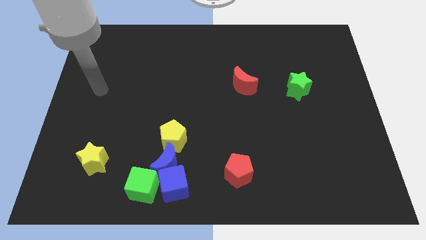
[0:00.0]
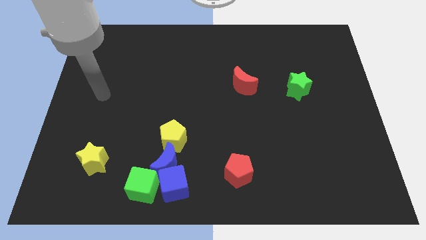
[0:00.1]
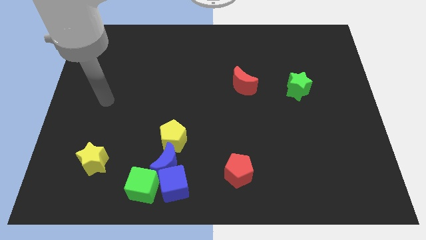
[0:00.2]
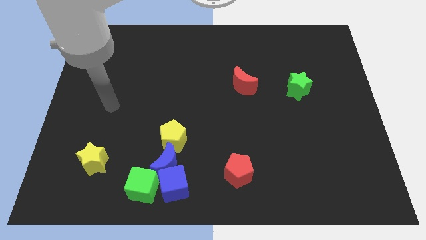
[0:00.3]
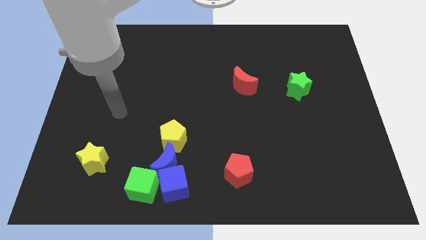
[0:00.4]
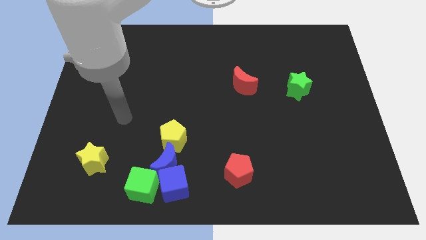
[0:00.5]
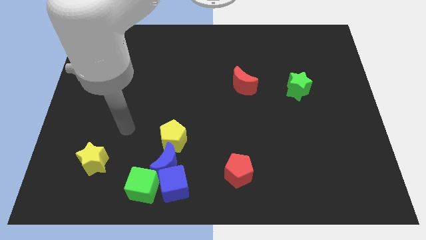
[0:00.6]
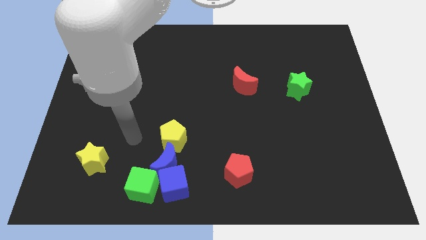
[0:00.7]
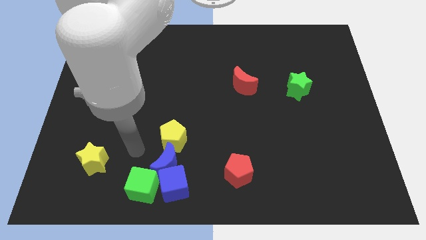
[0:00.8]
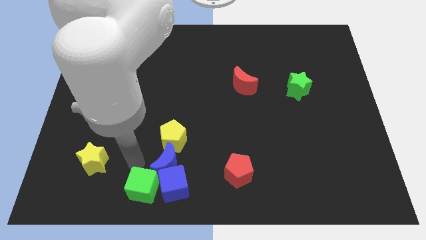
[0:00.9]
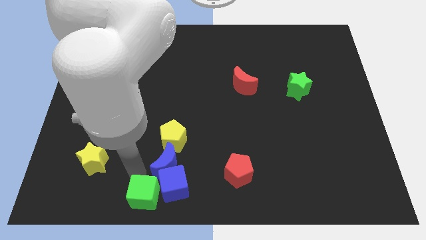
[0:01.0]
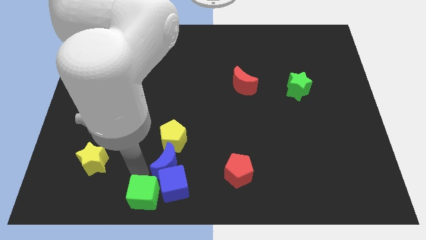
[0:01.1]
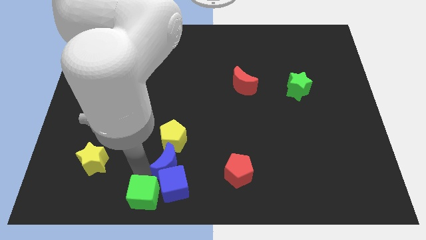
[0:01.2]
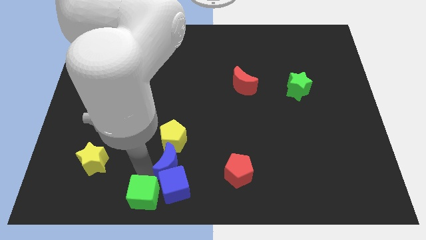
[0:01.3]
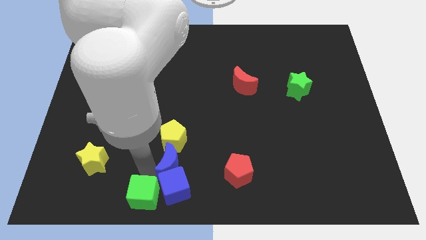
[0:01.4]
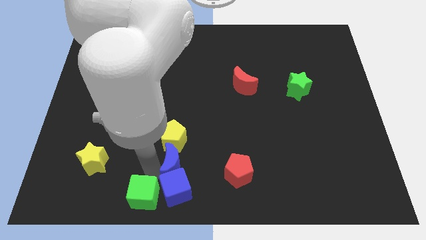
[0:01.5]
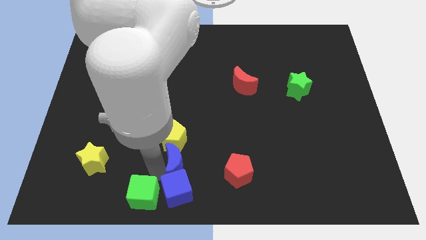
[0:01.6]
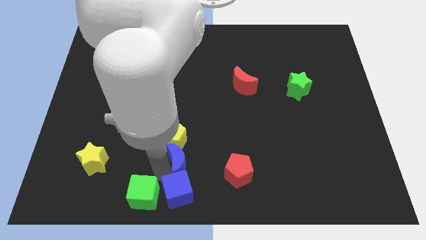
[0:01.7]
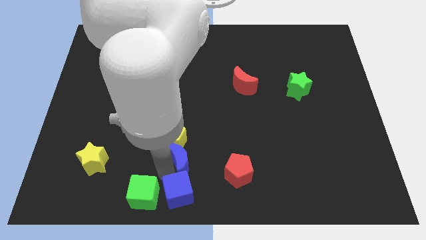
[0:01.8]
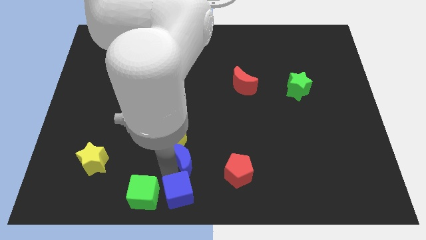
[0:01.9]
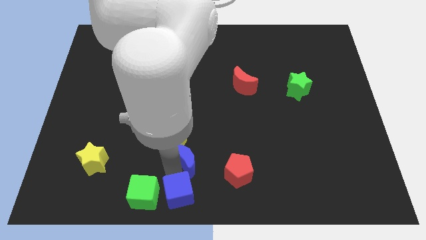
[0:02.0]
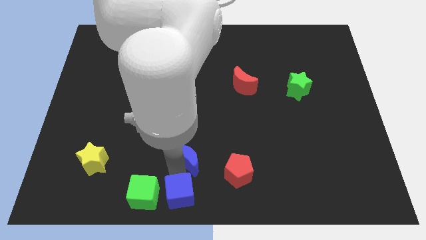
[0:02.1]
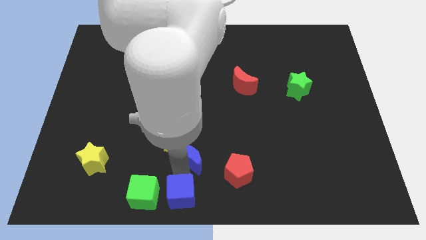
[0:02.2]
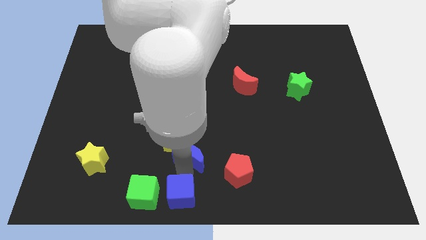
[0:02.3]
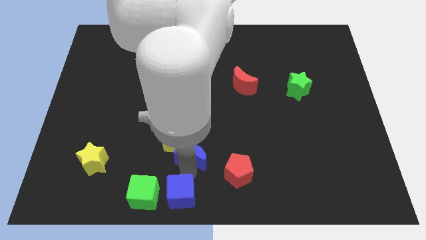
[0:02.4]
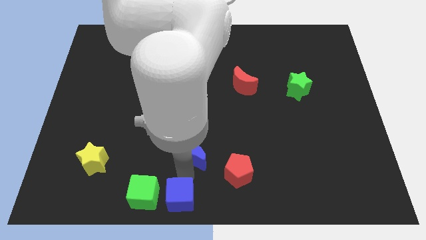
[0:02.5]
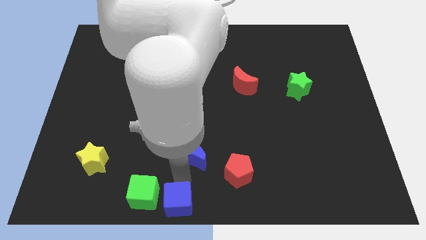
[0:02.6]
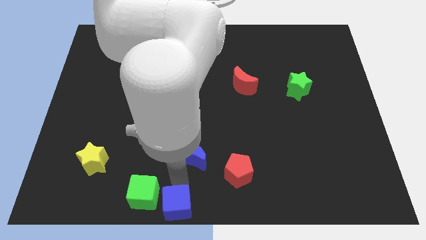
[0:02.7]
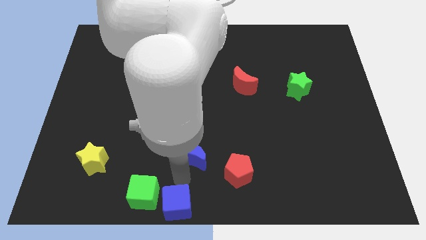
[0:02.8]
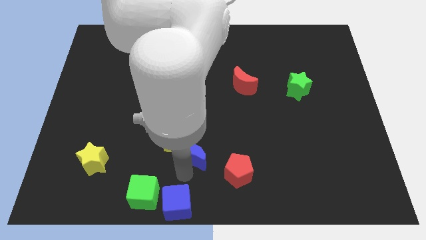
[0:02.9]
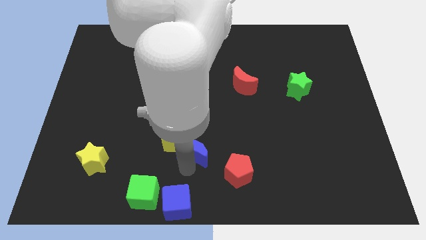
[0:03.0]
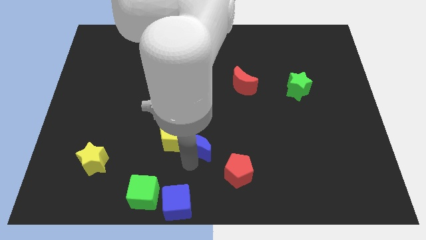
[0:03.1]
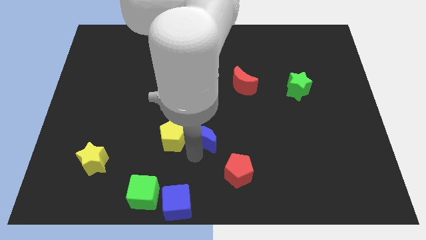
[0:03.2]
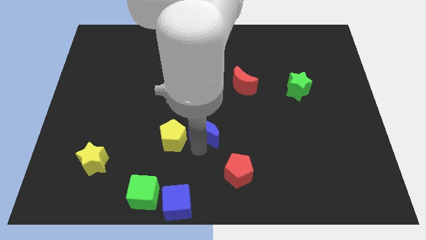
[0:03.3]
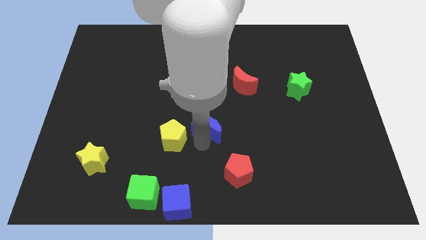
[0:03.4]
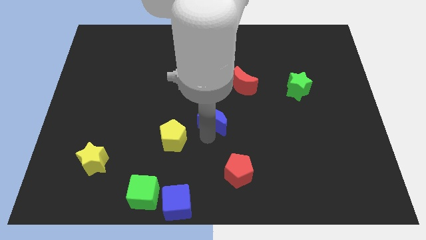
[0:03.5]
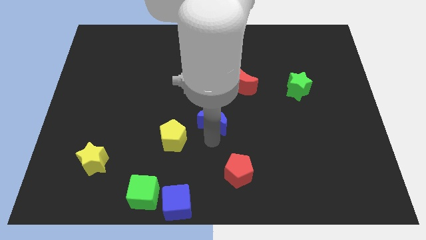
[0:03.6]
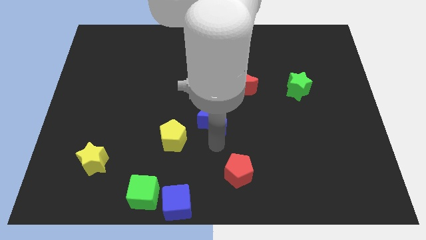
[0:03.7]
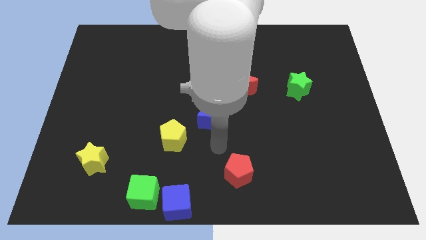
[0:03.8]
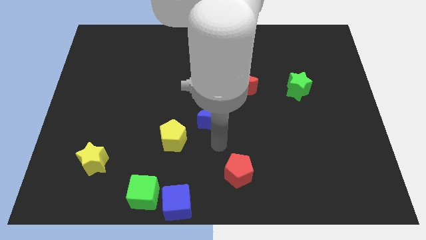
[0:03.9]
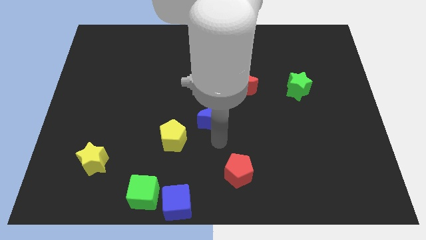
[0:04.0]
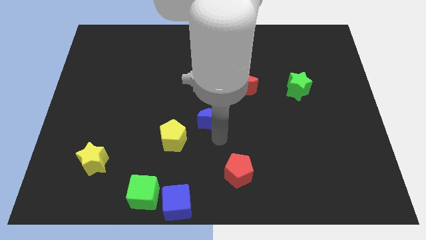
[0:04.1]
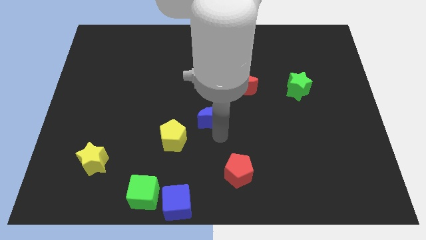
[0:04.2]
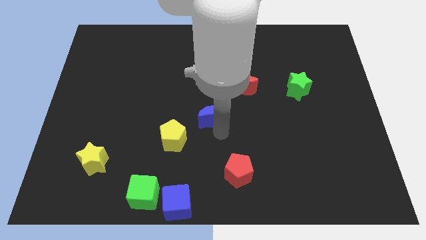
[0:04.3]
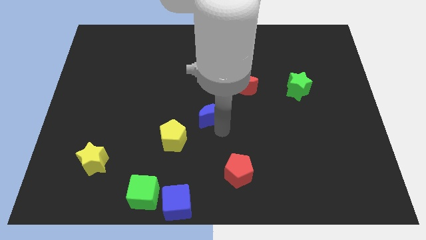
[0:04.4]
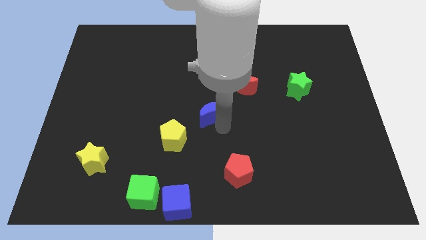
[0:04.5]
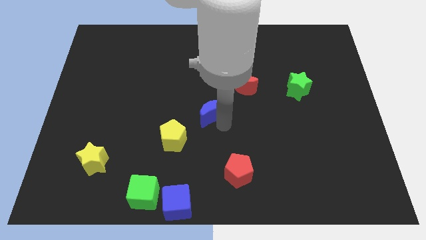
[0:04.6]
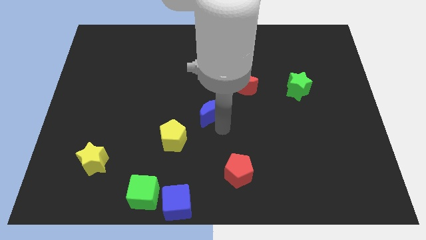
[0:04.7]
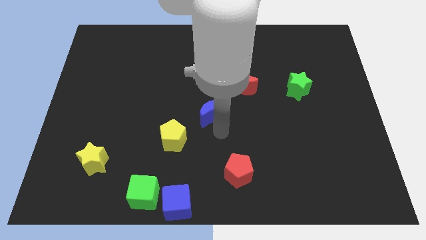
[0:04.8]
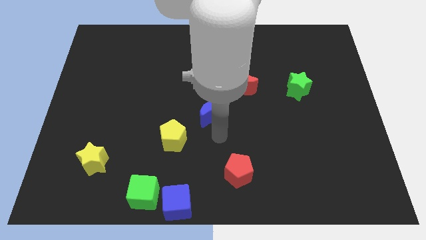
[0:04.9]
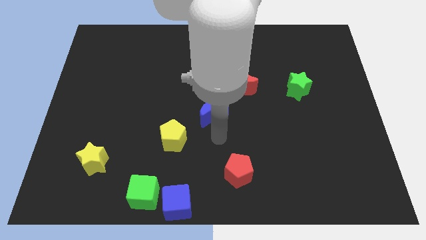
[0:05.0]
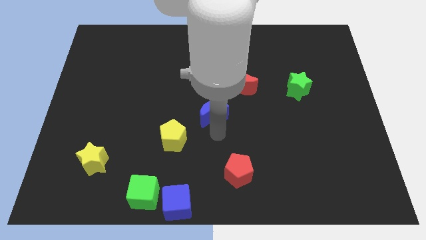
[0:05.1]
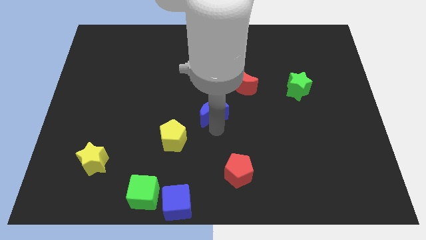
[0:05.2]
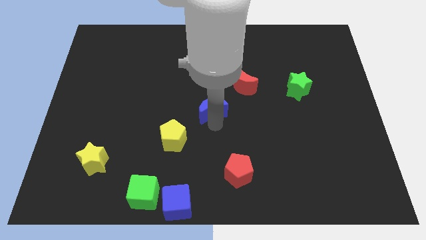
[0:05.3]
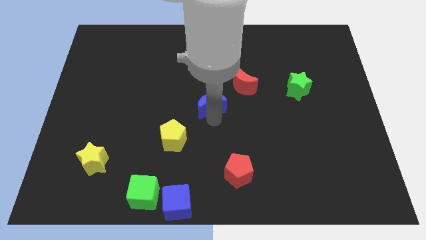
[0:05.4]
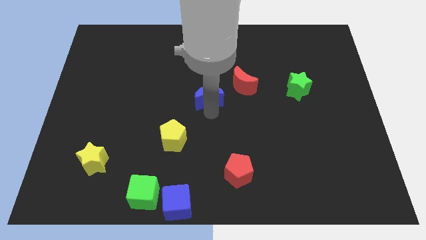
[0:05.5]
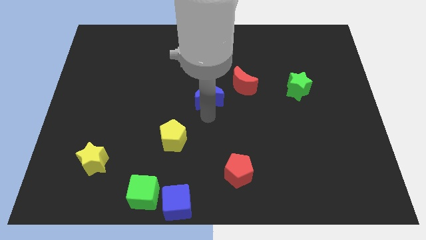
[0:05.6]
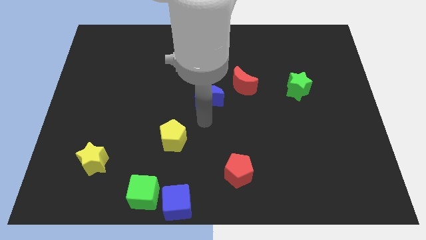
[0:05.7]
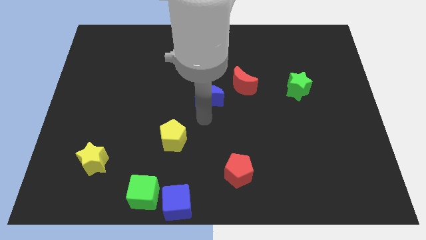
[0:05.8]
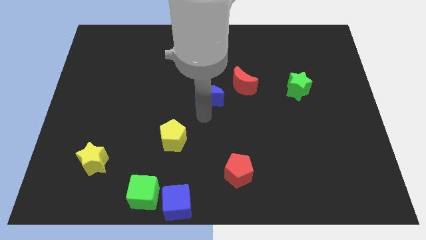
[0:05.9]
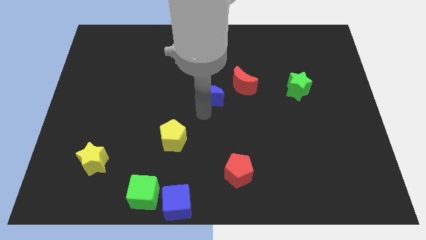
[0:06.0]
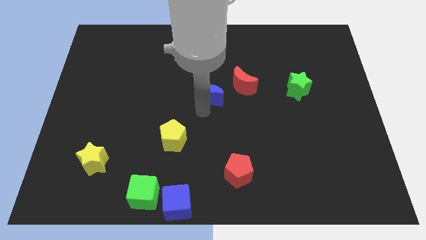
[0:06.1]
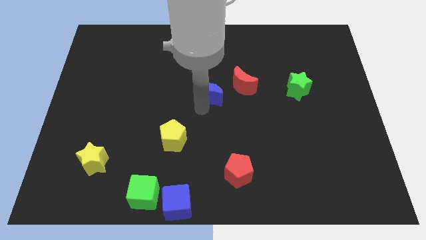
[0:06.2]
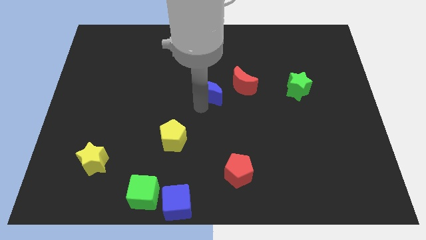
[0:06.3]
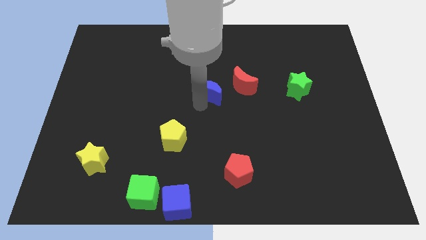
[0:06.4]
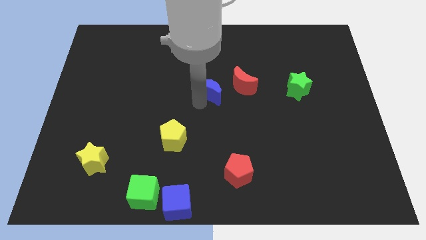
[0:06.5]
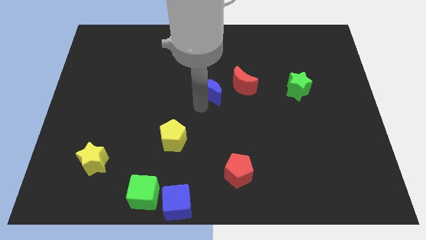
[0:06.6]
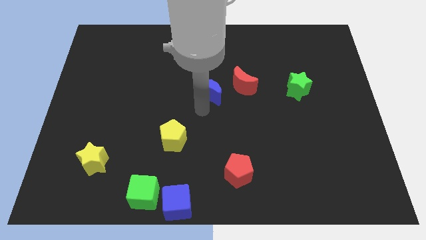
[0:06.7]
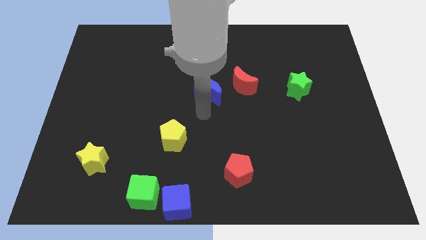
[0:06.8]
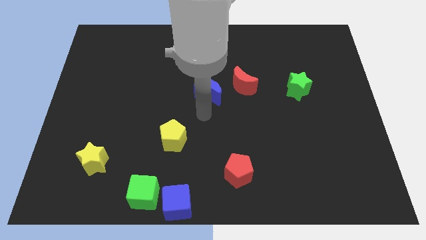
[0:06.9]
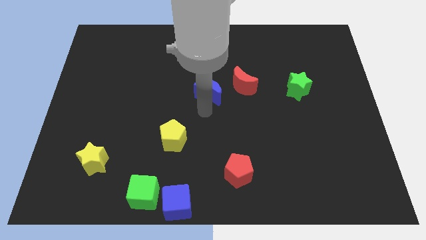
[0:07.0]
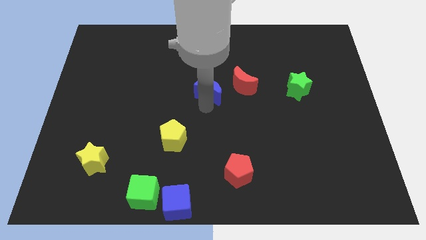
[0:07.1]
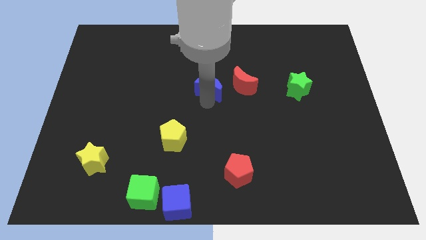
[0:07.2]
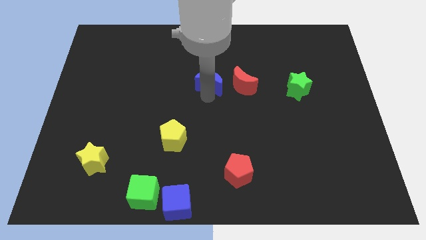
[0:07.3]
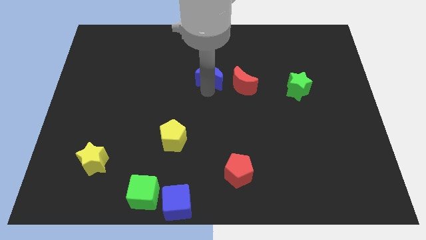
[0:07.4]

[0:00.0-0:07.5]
move the blue moon diagonally up and to the left of the red moon

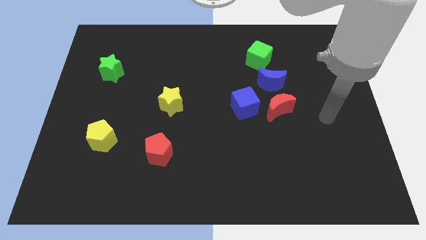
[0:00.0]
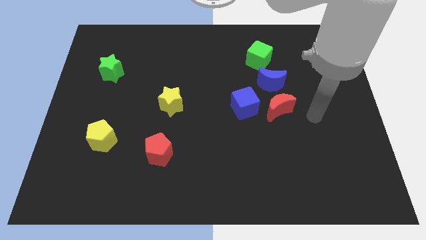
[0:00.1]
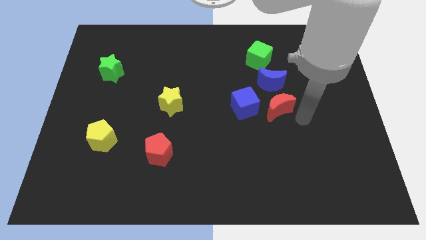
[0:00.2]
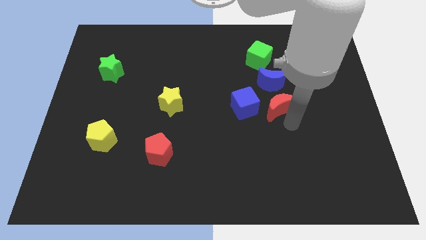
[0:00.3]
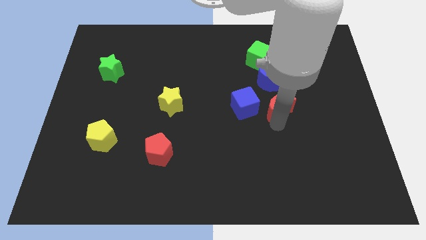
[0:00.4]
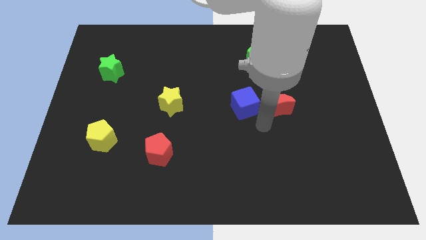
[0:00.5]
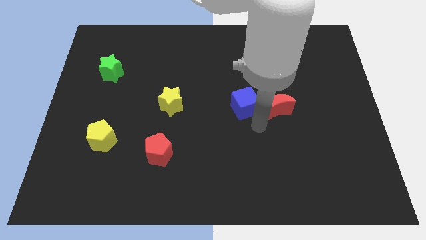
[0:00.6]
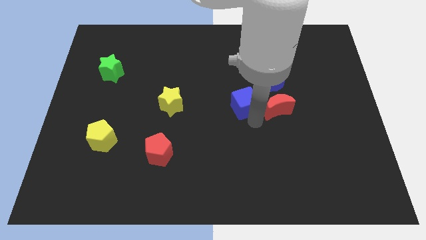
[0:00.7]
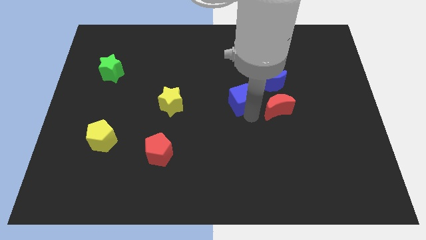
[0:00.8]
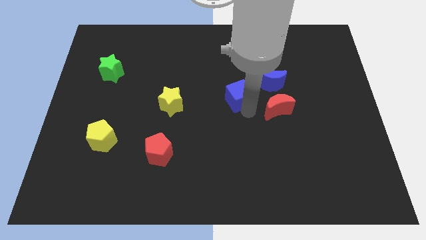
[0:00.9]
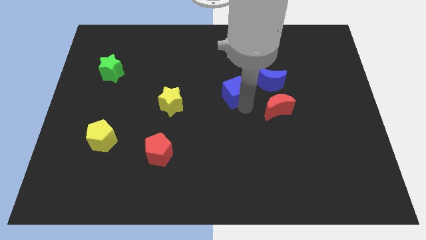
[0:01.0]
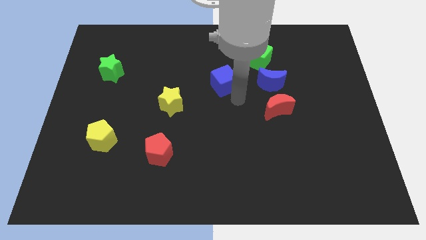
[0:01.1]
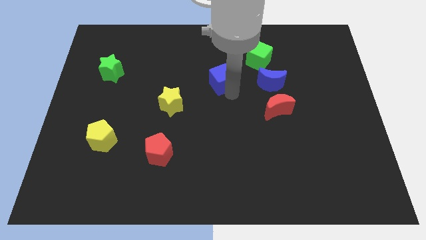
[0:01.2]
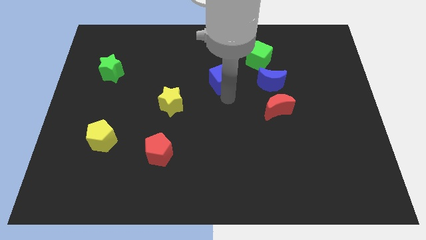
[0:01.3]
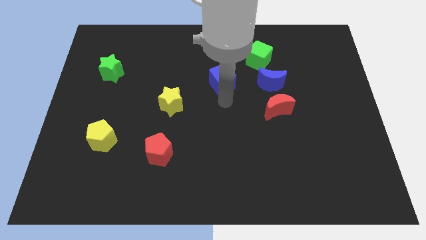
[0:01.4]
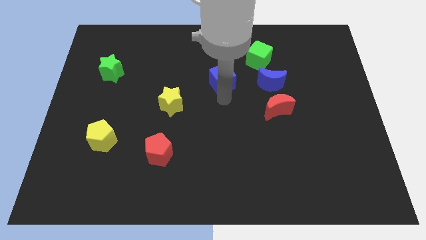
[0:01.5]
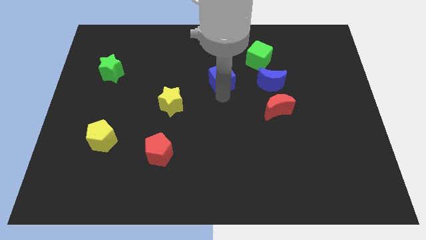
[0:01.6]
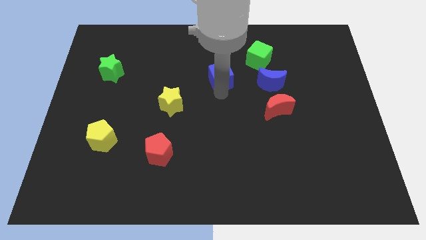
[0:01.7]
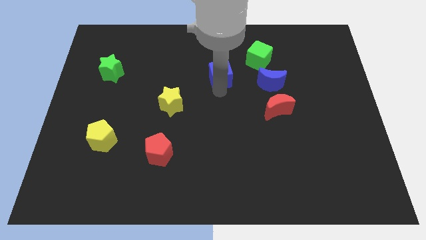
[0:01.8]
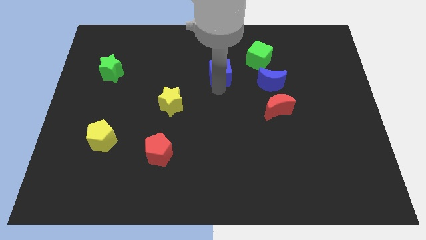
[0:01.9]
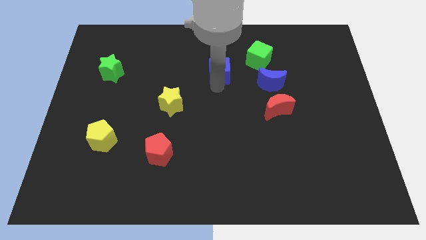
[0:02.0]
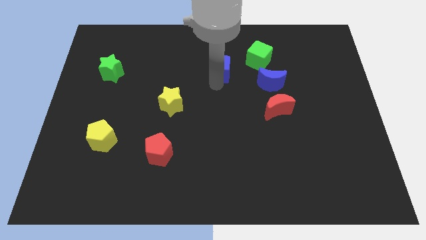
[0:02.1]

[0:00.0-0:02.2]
put the blue cube to the left of the green cube
